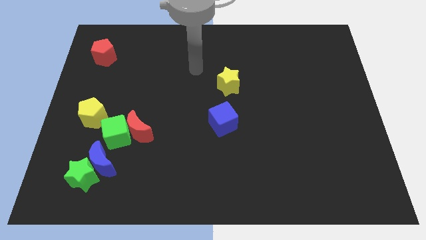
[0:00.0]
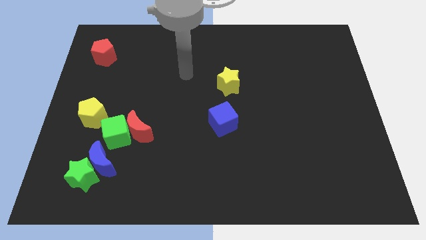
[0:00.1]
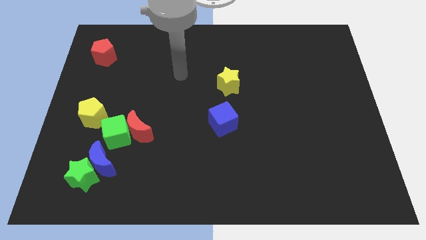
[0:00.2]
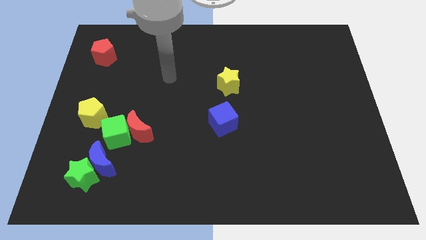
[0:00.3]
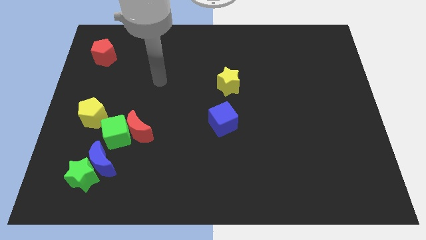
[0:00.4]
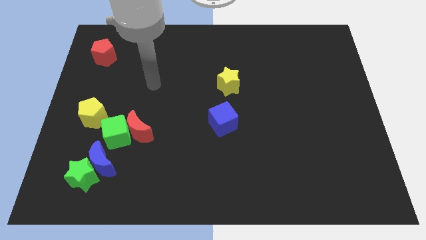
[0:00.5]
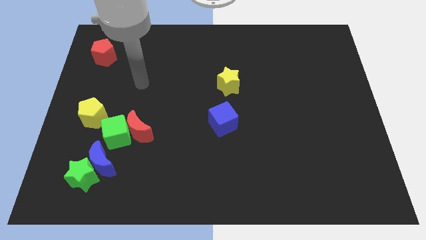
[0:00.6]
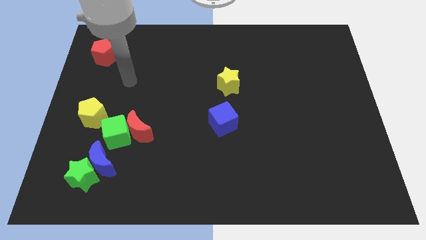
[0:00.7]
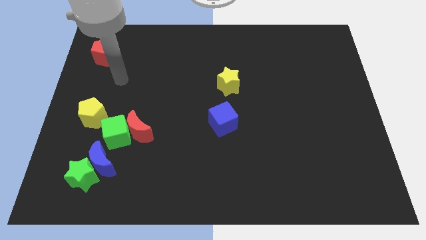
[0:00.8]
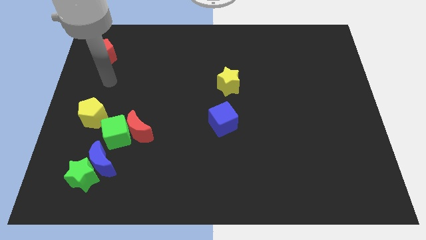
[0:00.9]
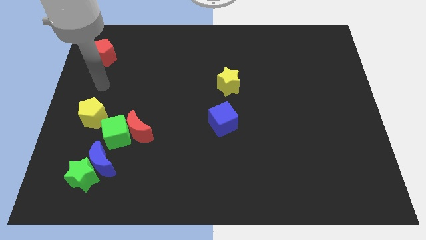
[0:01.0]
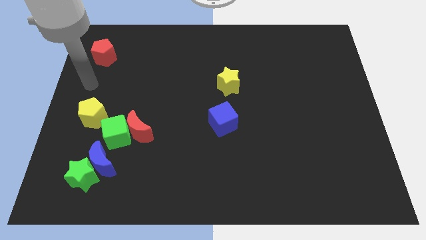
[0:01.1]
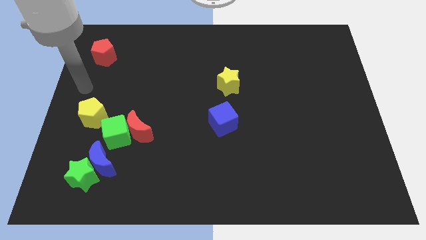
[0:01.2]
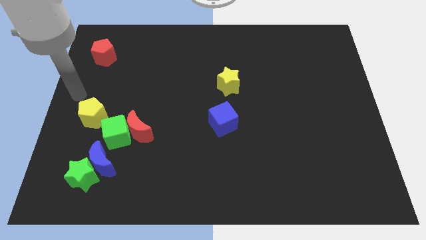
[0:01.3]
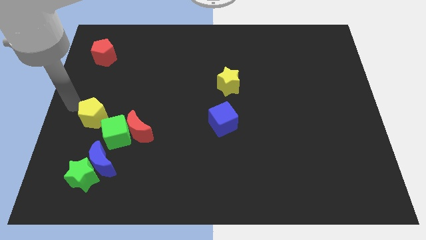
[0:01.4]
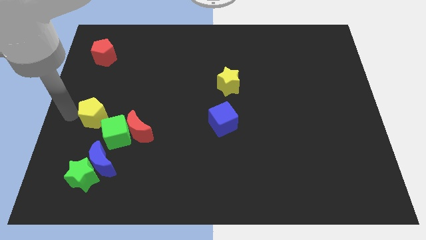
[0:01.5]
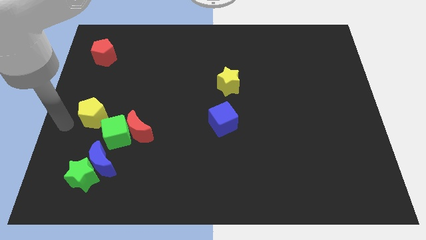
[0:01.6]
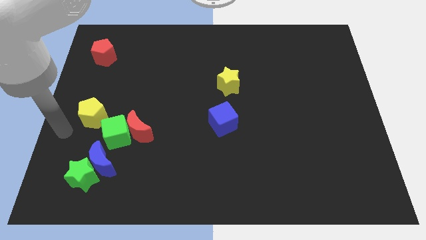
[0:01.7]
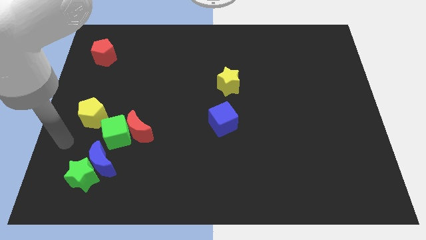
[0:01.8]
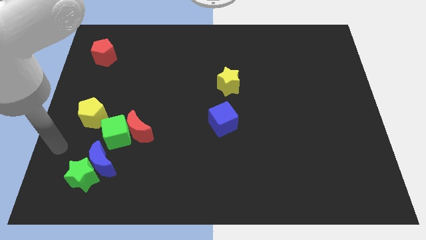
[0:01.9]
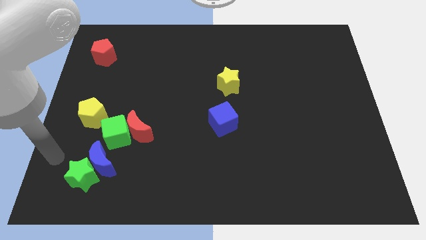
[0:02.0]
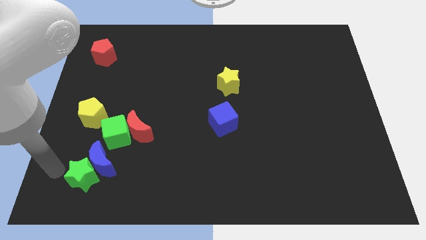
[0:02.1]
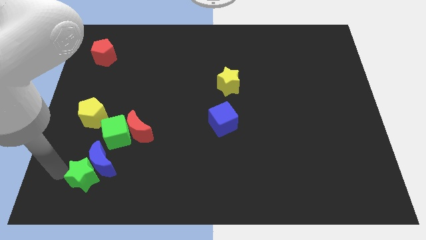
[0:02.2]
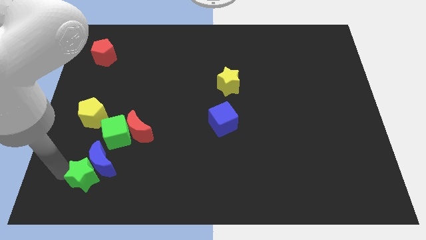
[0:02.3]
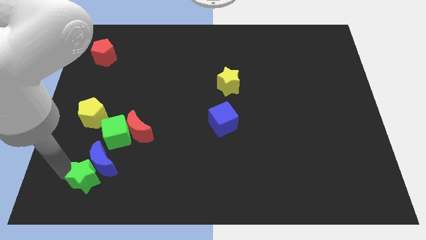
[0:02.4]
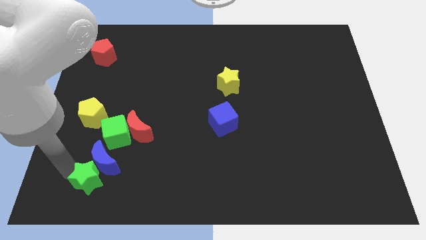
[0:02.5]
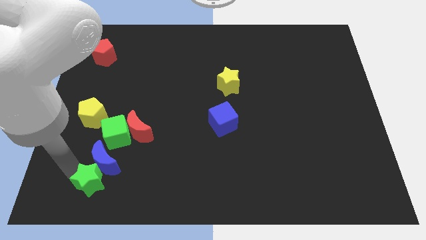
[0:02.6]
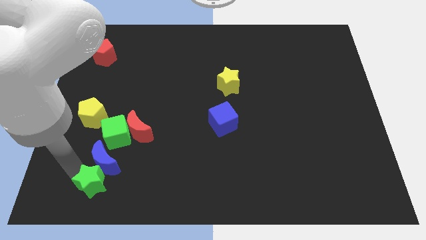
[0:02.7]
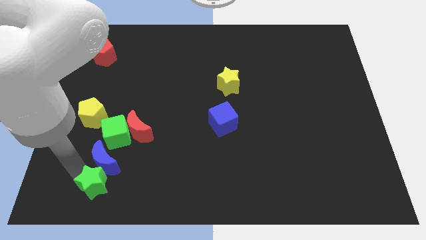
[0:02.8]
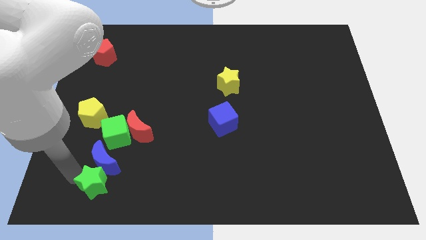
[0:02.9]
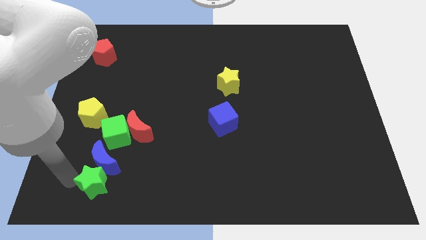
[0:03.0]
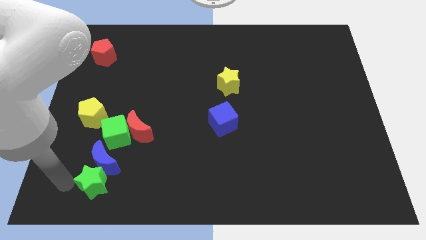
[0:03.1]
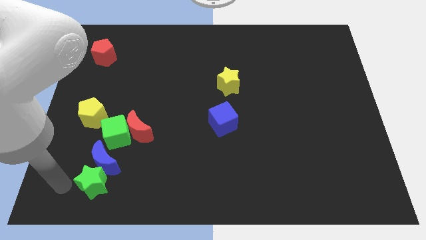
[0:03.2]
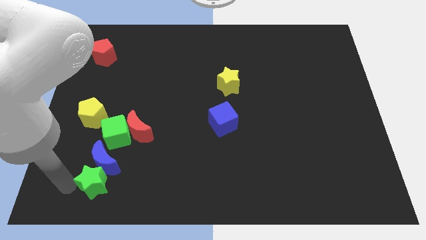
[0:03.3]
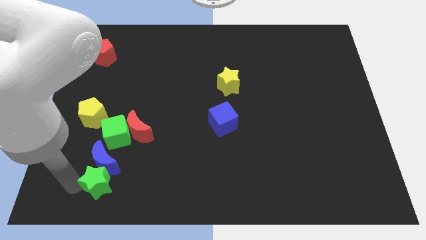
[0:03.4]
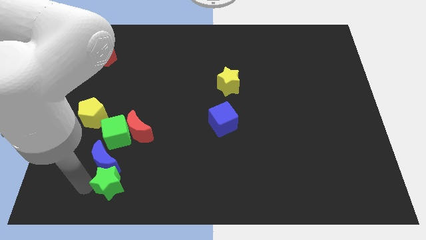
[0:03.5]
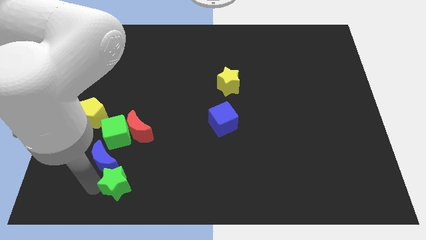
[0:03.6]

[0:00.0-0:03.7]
move the green star a bit right

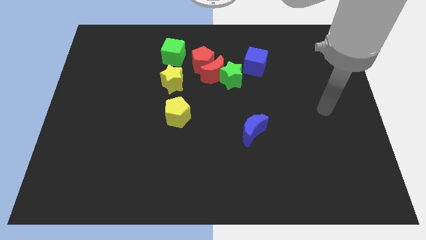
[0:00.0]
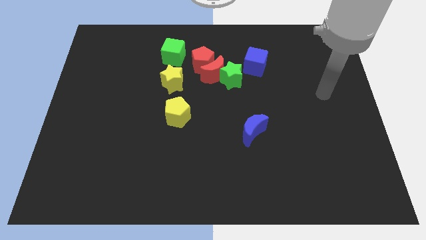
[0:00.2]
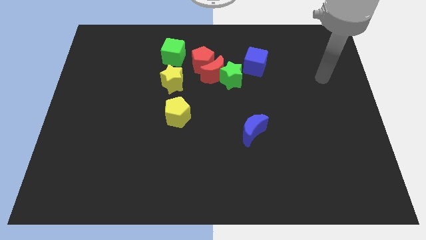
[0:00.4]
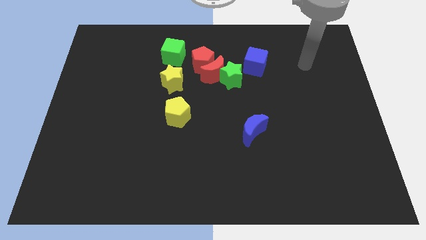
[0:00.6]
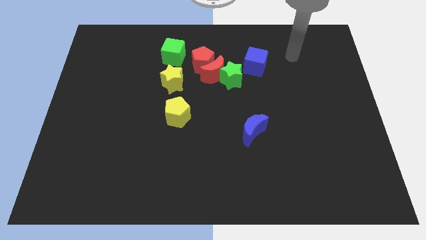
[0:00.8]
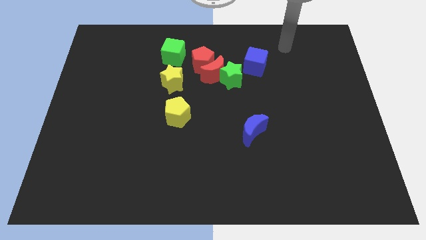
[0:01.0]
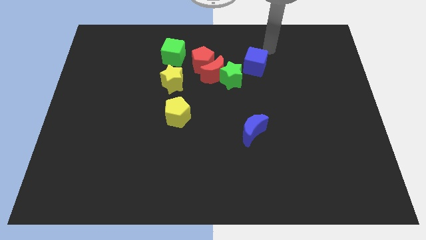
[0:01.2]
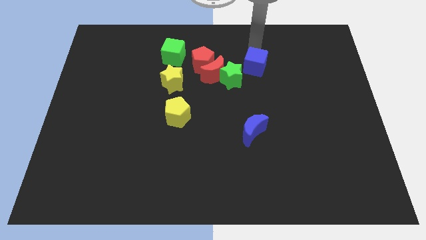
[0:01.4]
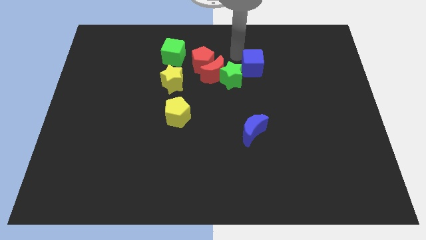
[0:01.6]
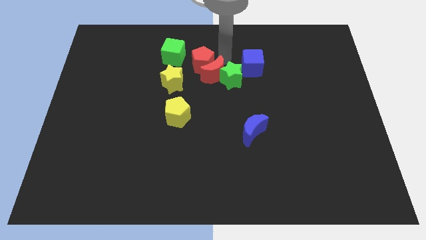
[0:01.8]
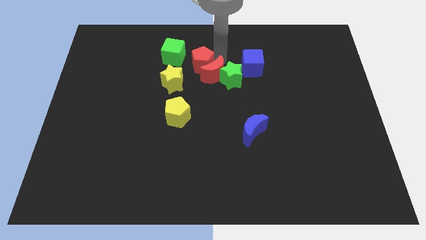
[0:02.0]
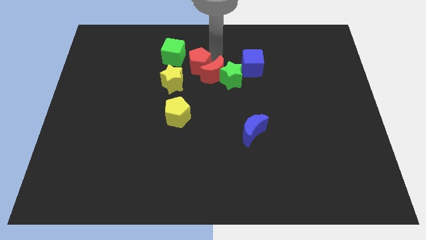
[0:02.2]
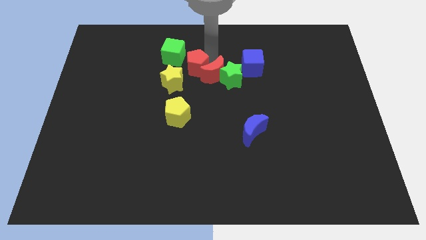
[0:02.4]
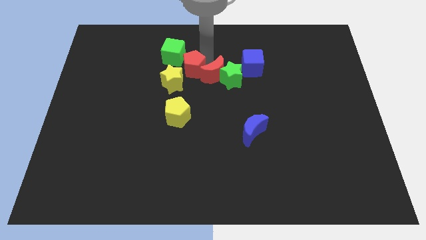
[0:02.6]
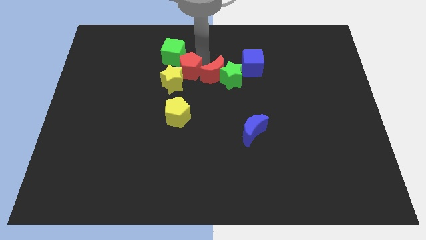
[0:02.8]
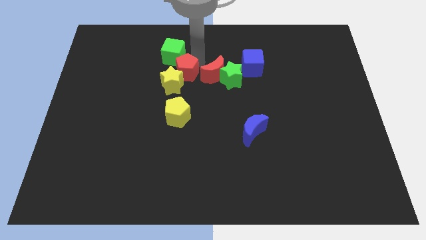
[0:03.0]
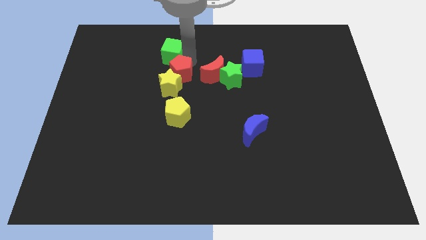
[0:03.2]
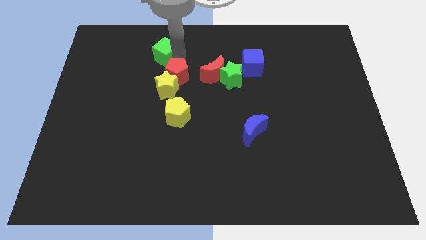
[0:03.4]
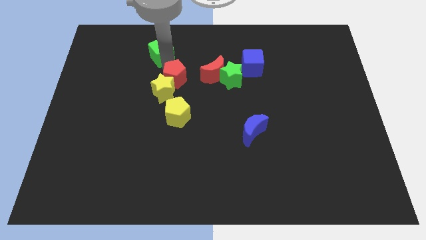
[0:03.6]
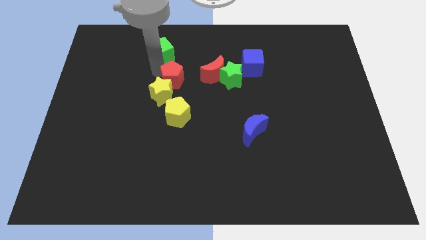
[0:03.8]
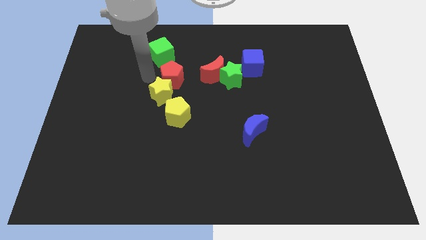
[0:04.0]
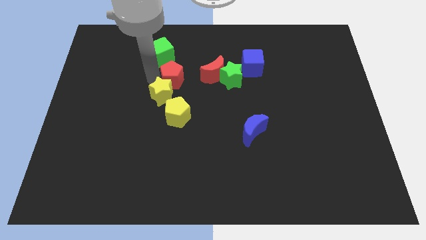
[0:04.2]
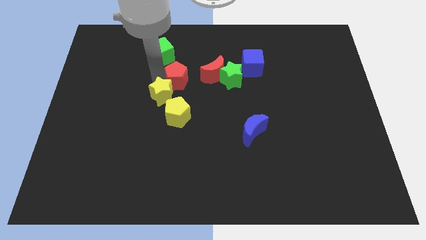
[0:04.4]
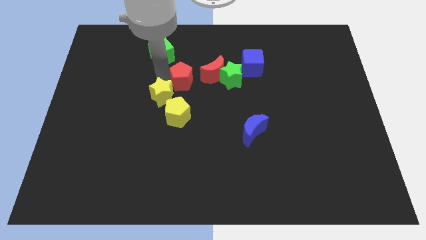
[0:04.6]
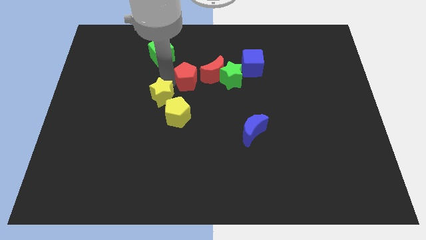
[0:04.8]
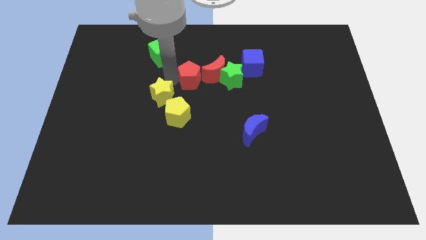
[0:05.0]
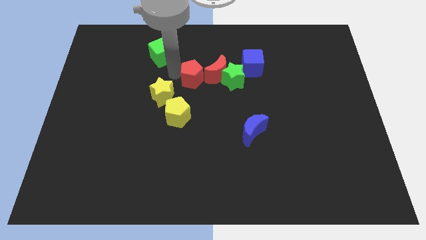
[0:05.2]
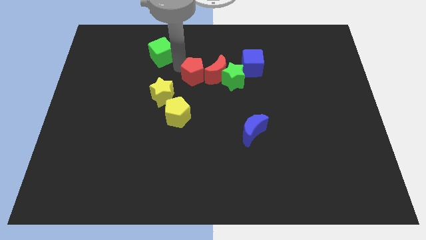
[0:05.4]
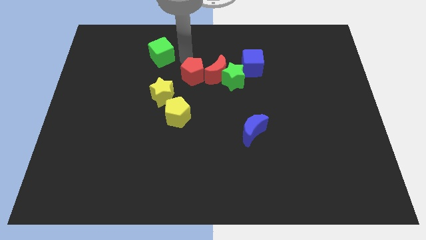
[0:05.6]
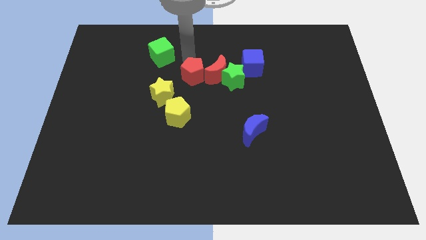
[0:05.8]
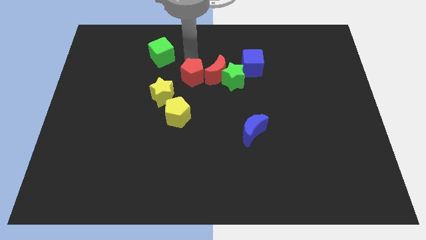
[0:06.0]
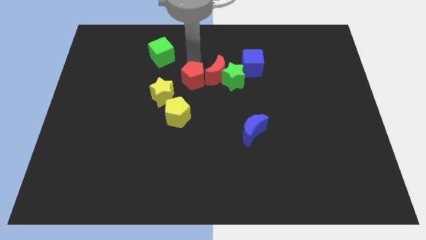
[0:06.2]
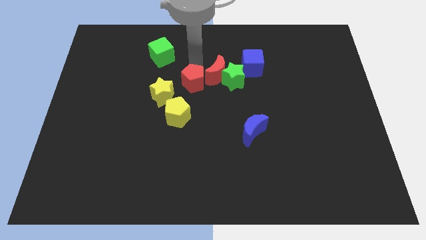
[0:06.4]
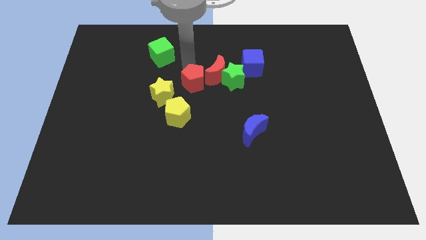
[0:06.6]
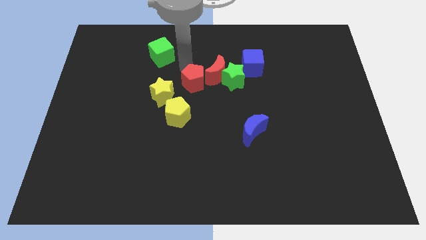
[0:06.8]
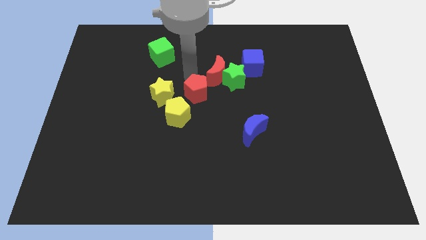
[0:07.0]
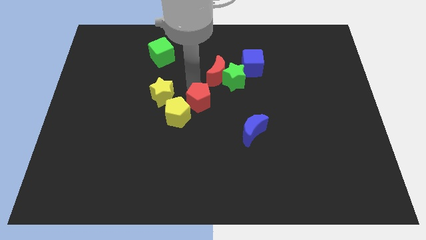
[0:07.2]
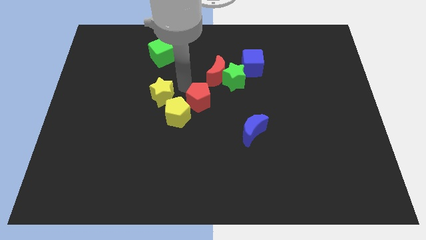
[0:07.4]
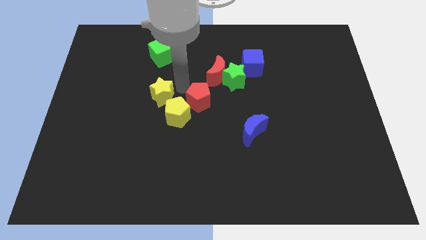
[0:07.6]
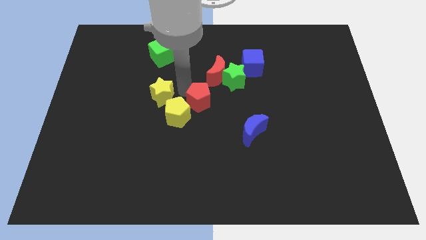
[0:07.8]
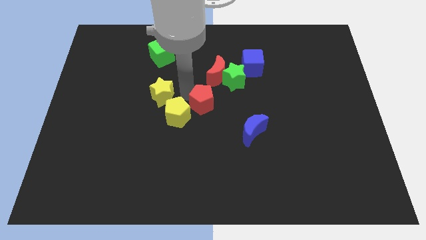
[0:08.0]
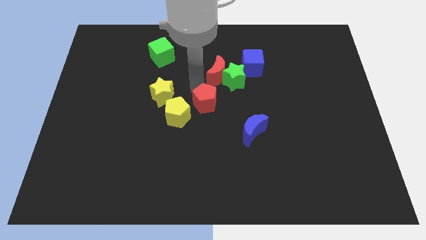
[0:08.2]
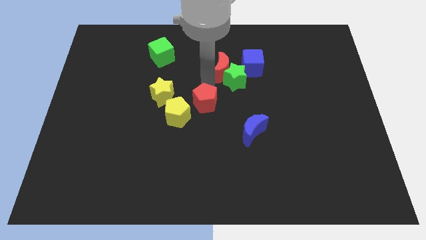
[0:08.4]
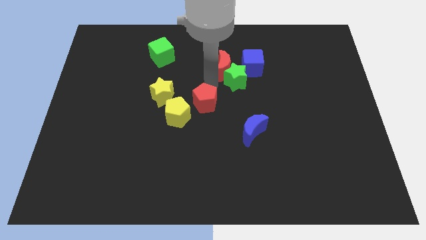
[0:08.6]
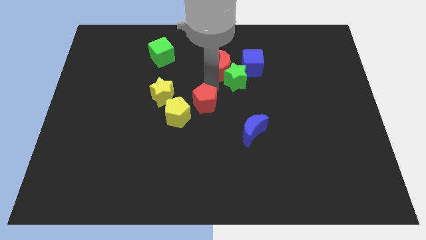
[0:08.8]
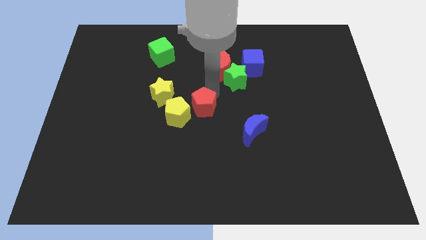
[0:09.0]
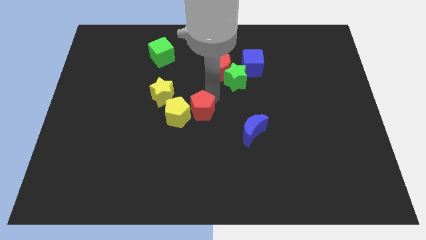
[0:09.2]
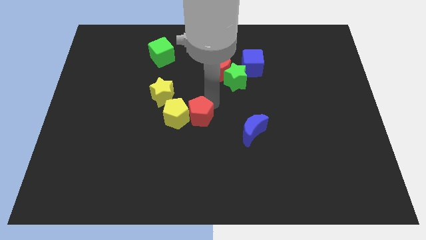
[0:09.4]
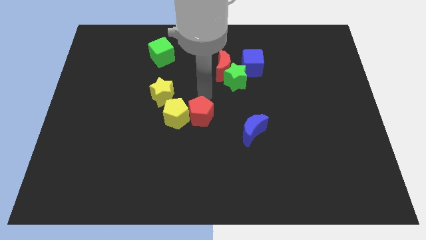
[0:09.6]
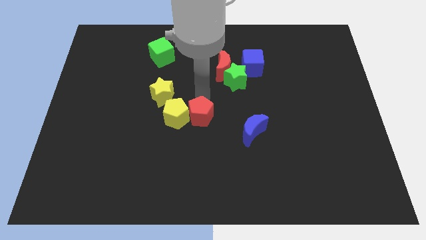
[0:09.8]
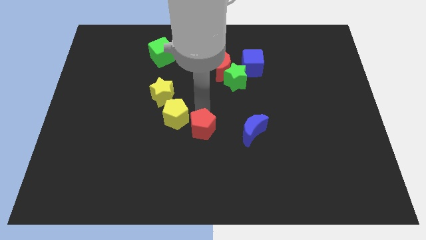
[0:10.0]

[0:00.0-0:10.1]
push the red pentagon downwards
